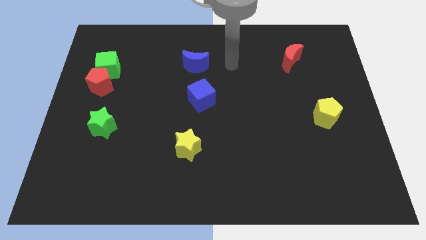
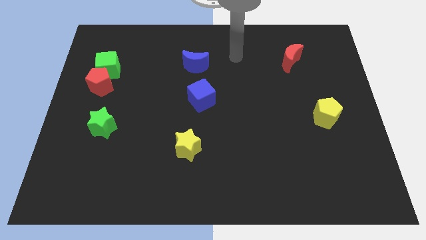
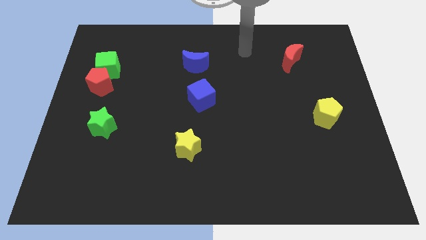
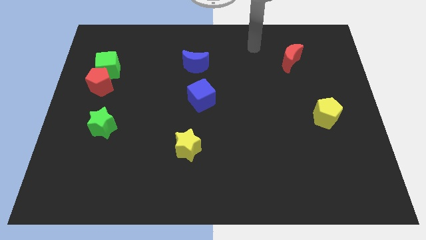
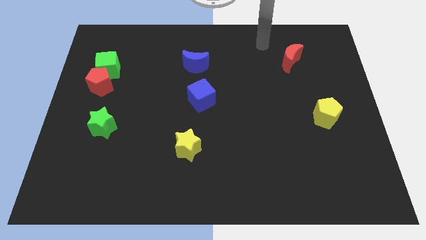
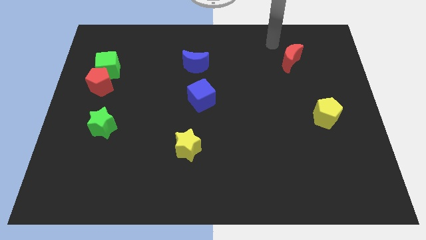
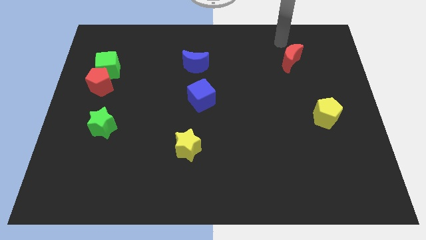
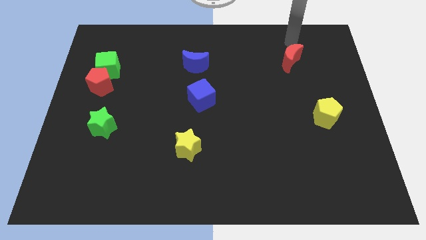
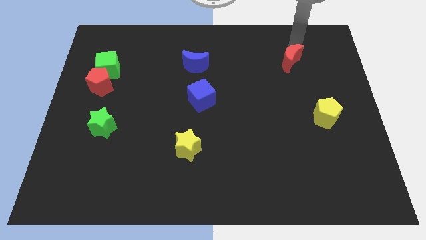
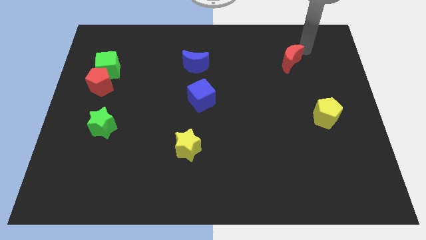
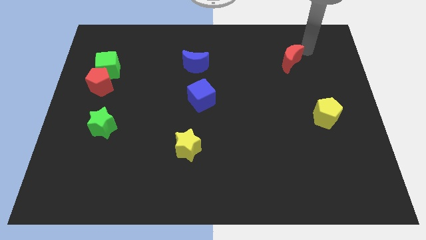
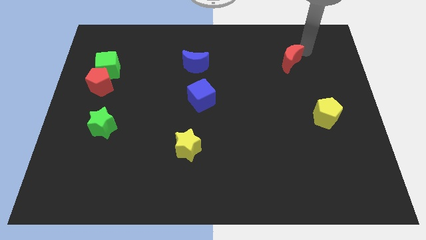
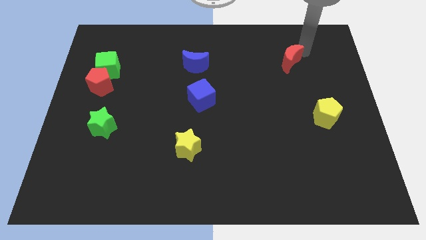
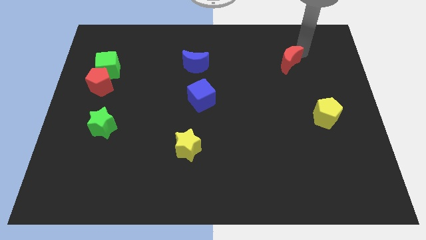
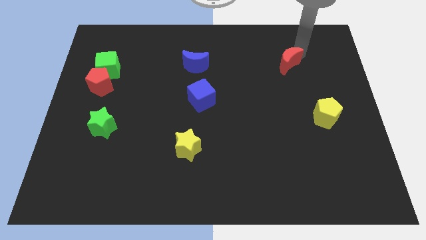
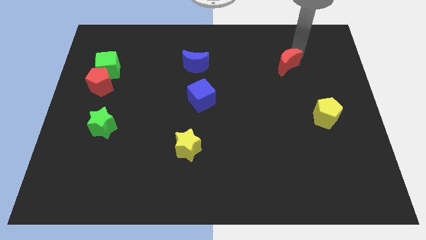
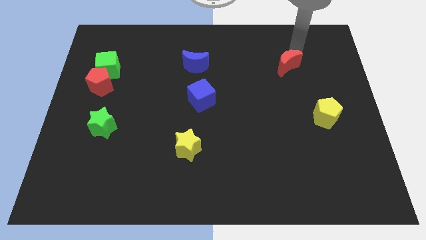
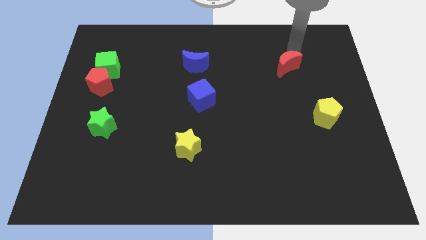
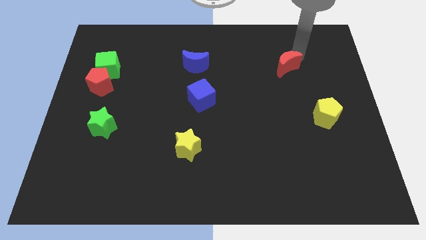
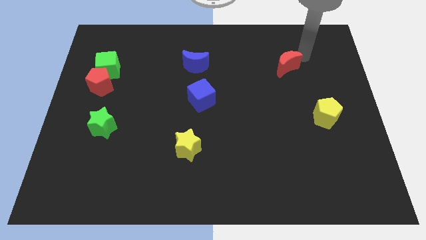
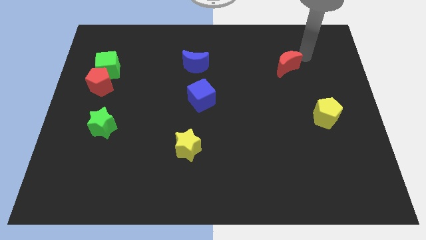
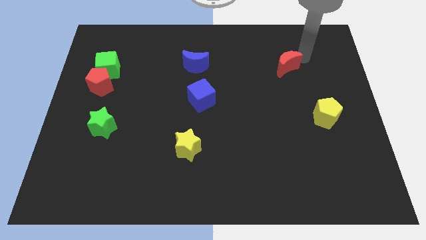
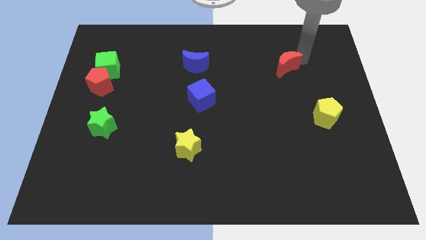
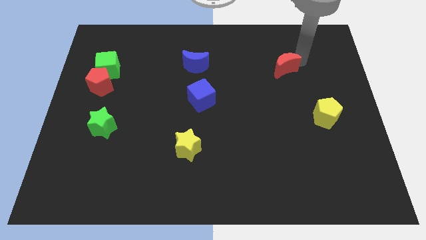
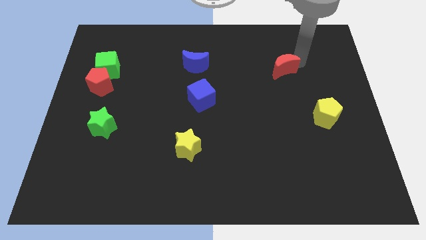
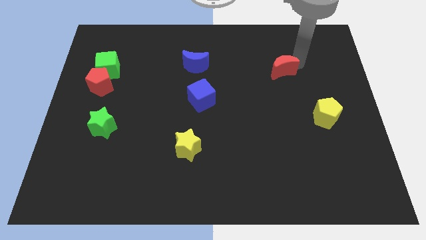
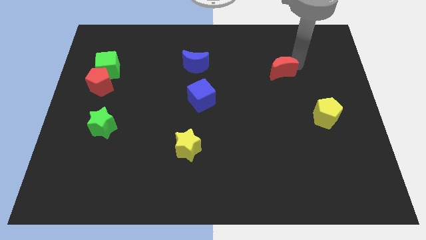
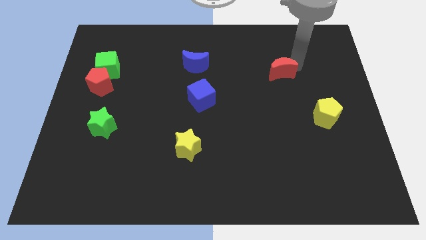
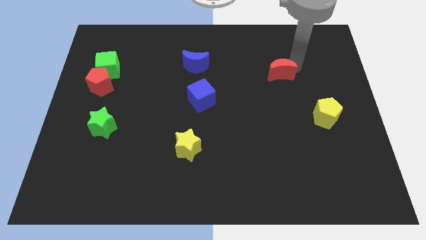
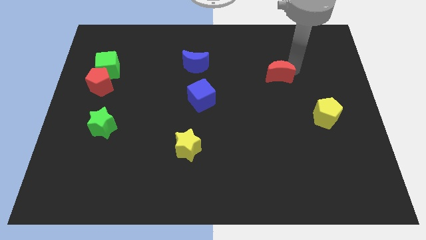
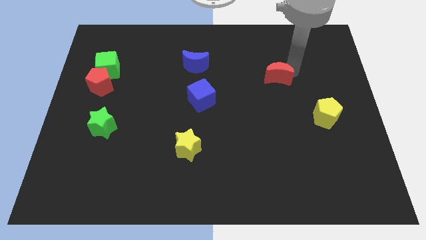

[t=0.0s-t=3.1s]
slightly push the red moon down and then left

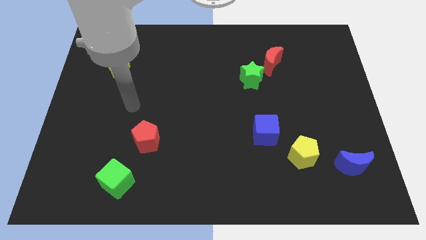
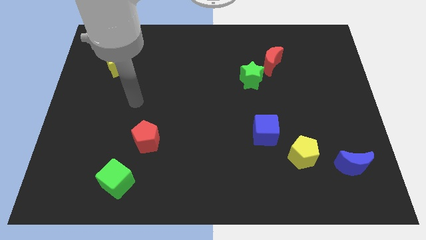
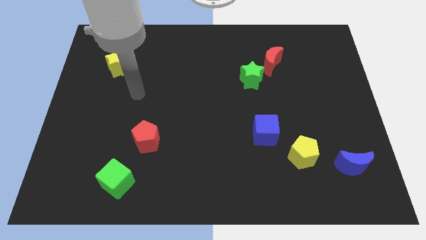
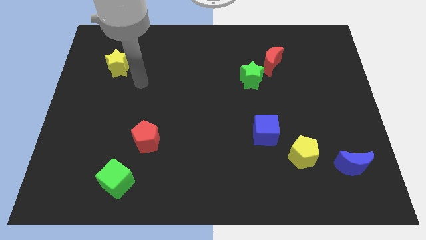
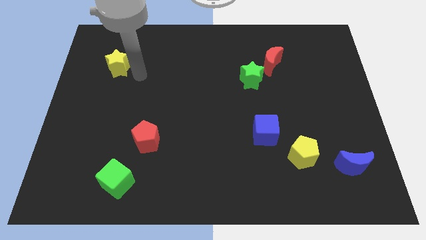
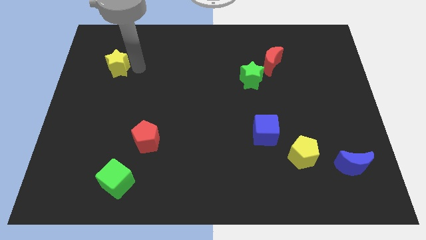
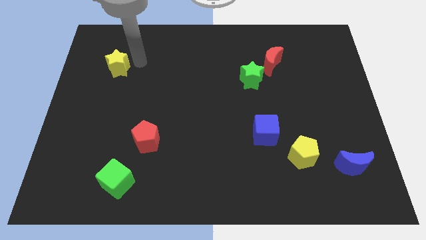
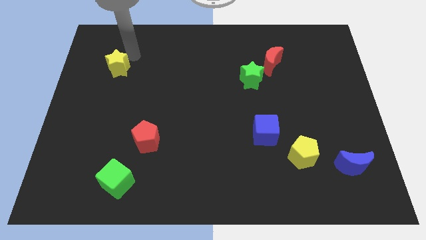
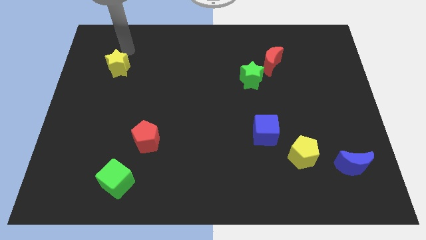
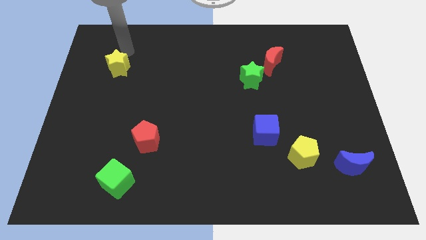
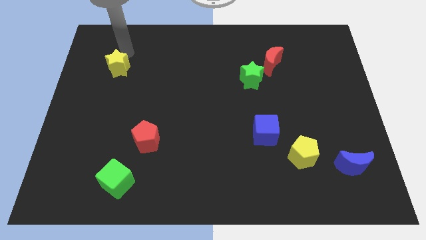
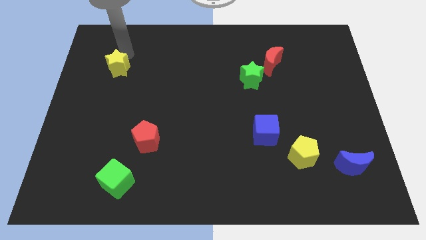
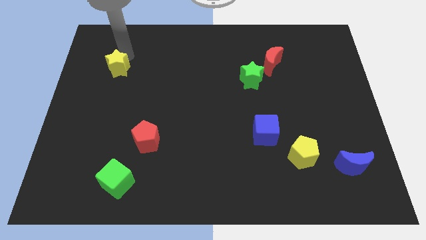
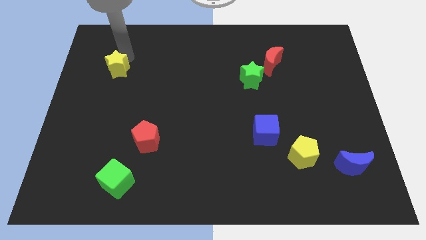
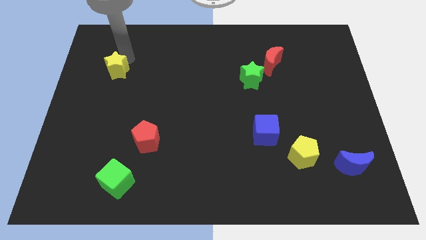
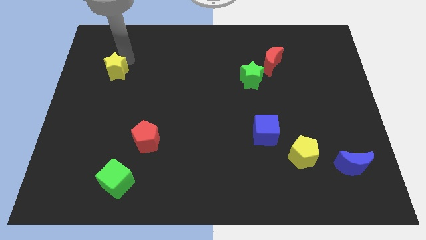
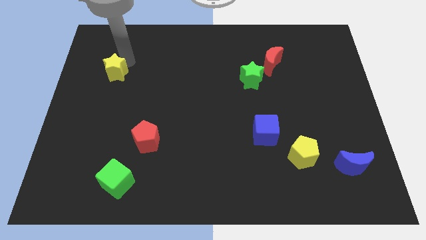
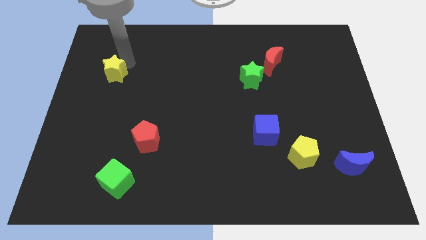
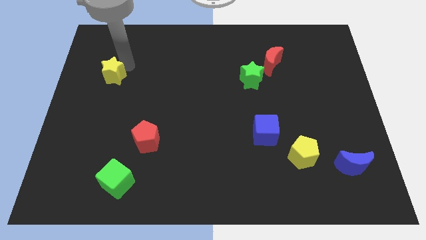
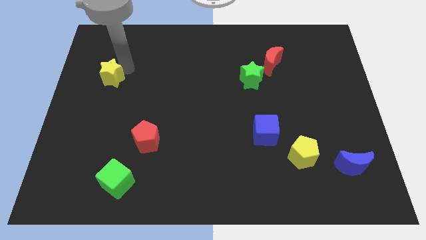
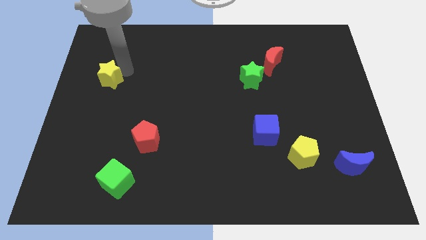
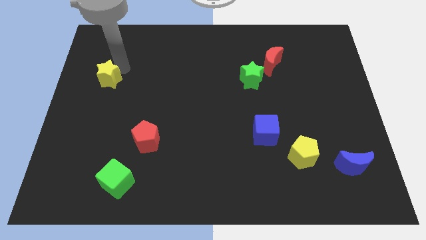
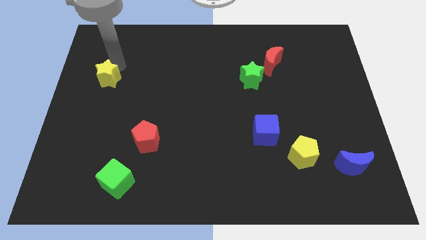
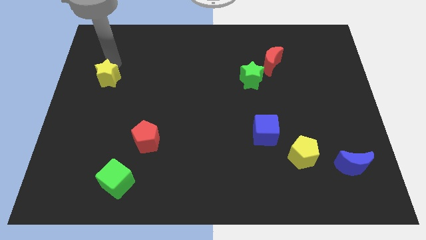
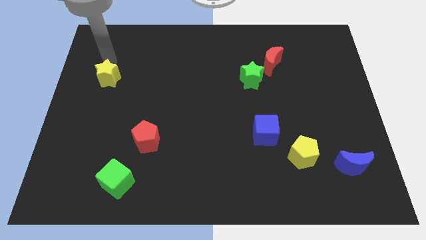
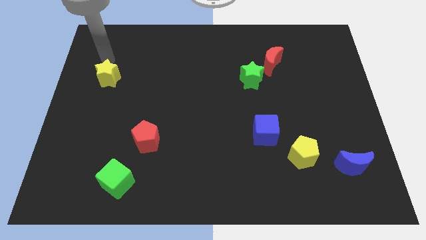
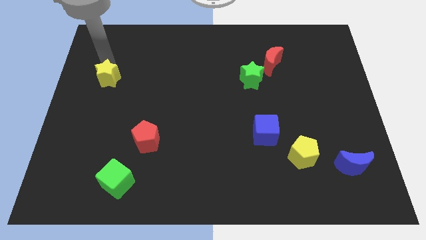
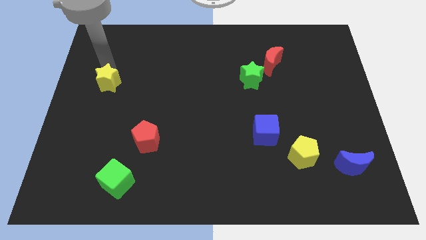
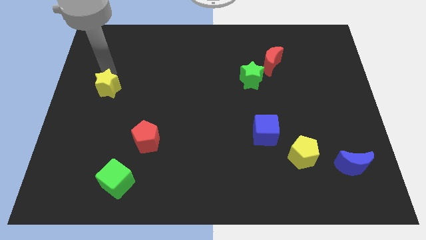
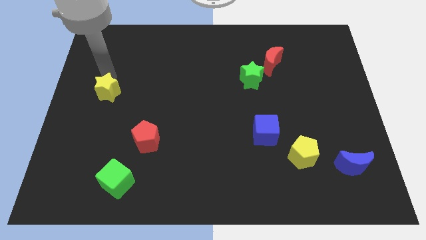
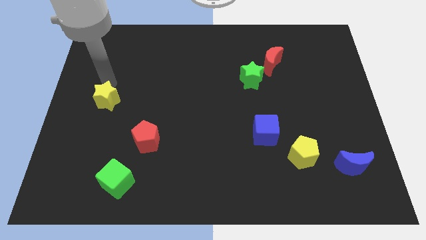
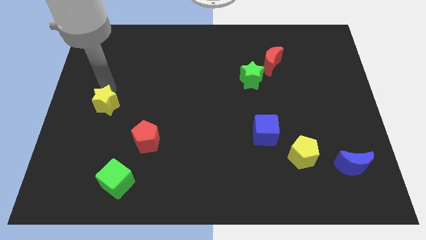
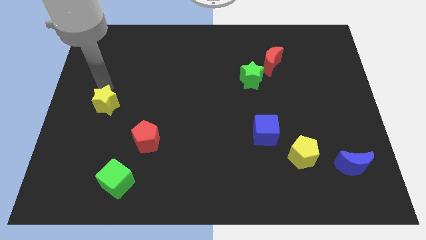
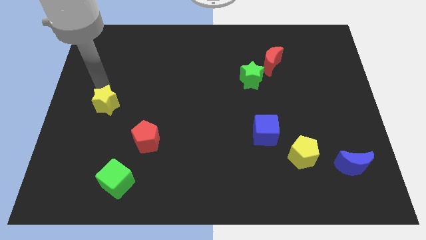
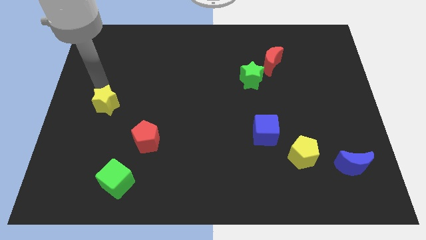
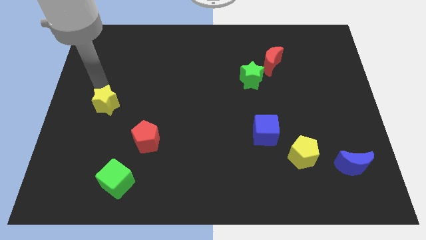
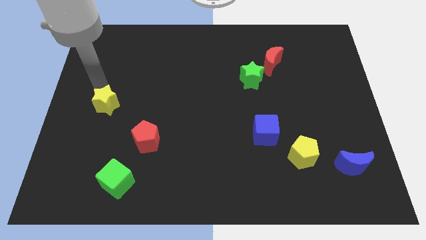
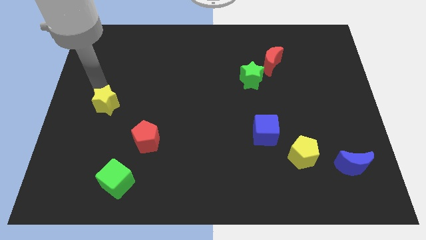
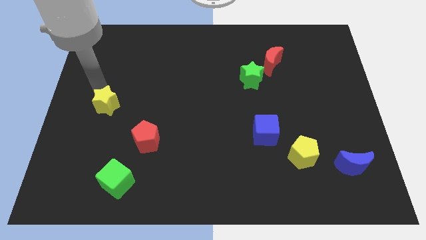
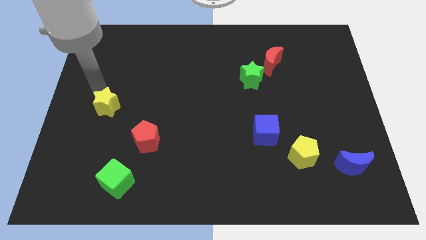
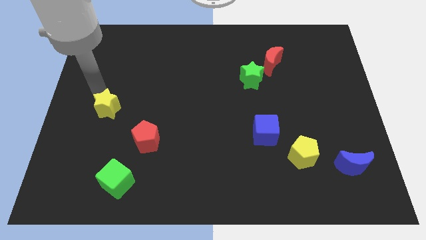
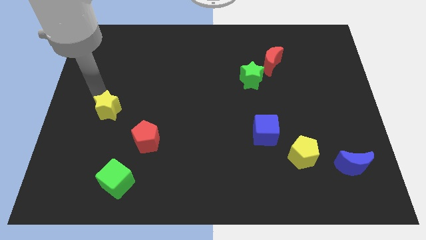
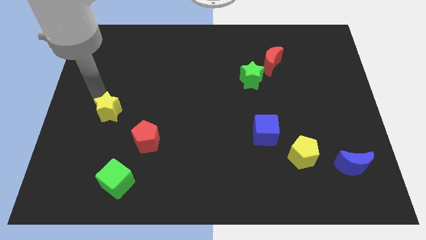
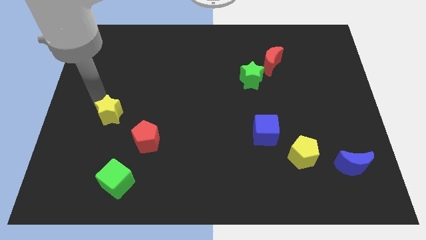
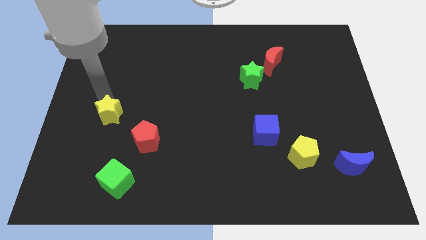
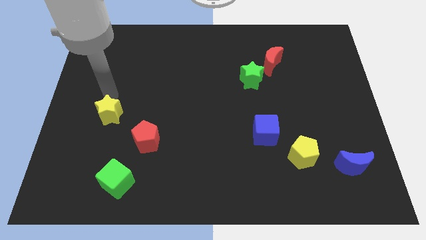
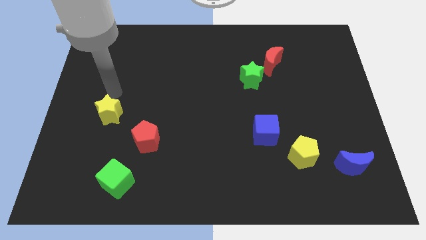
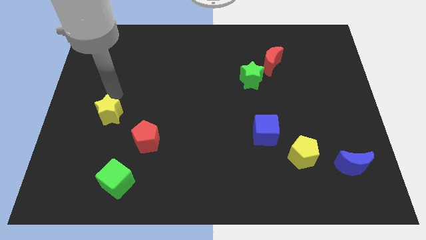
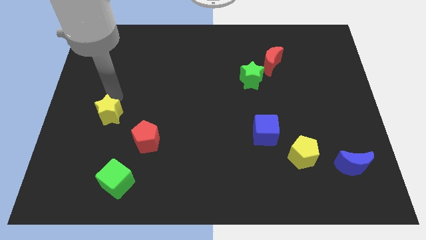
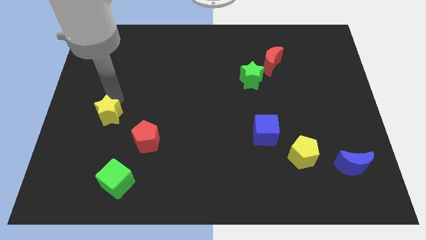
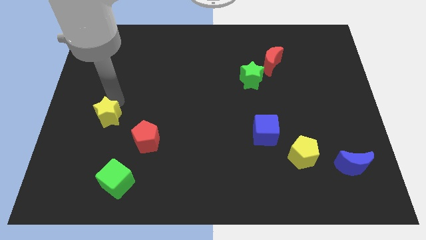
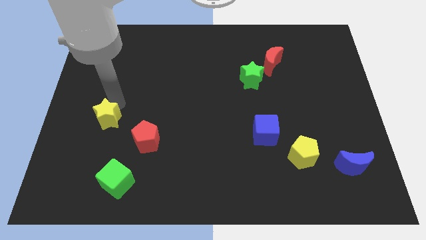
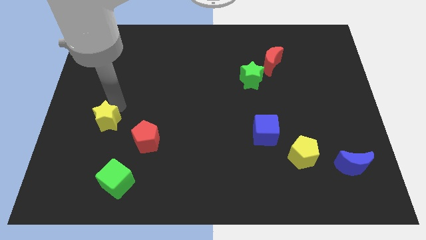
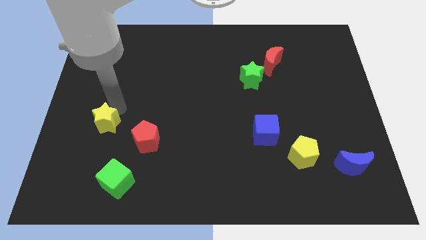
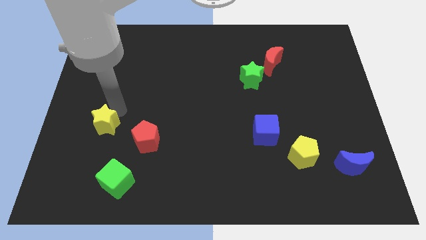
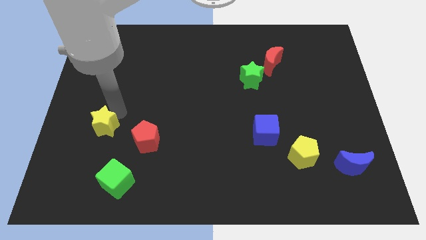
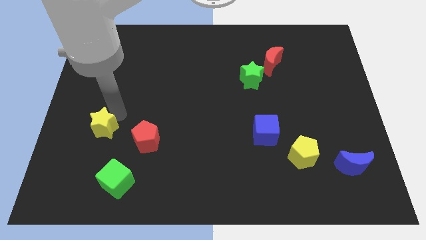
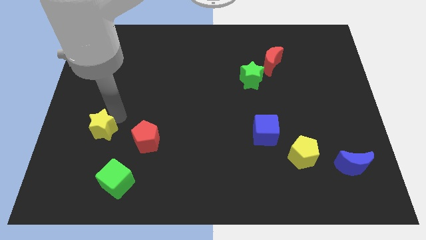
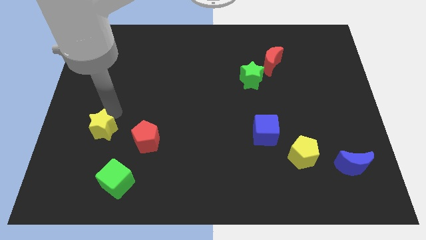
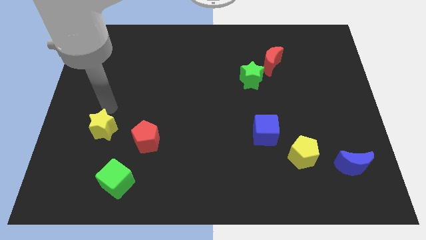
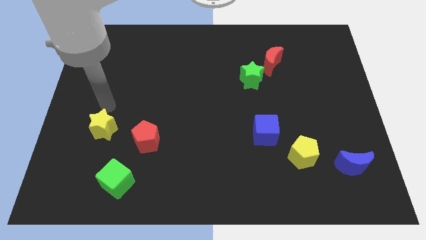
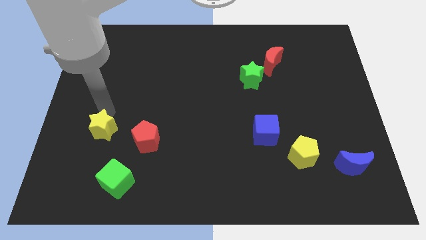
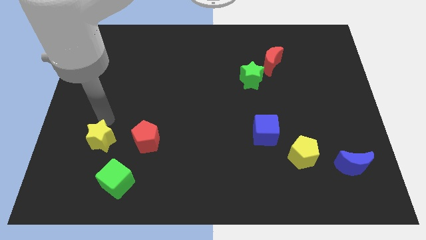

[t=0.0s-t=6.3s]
push the yellow star downwards
